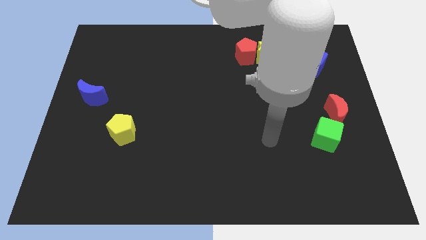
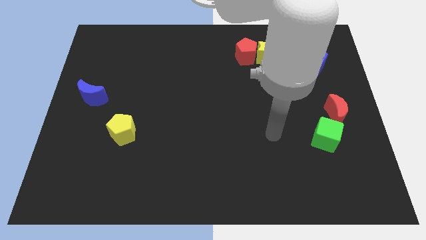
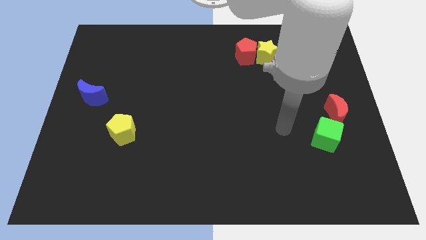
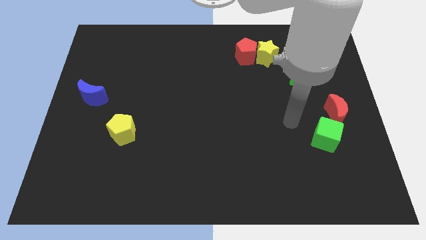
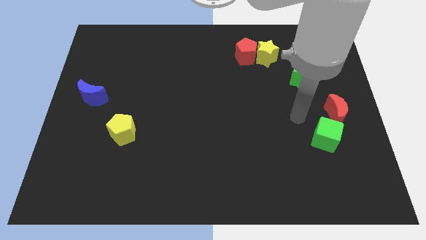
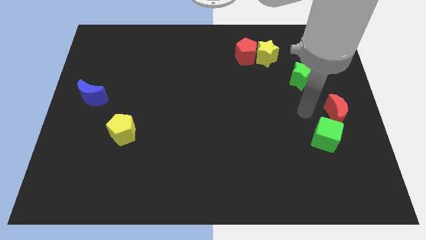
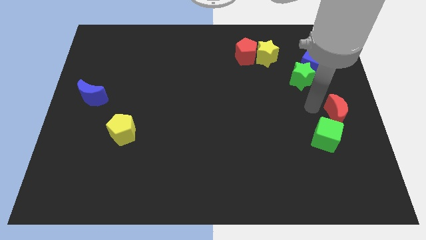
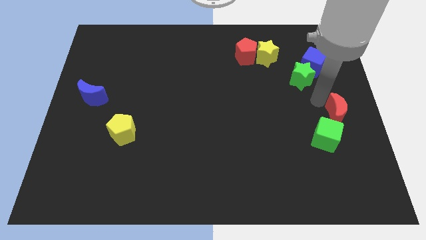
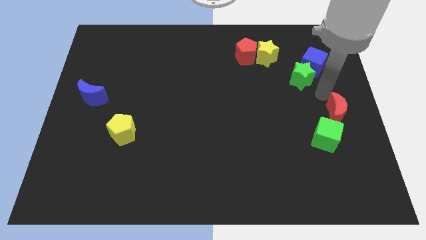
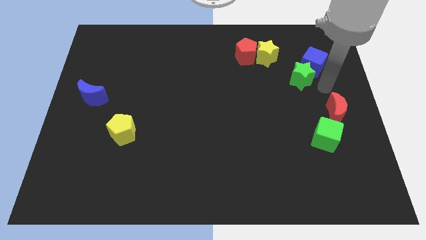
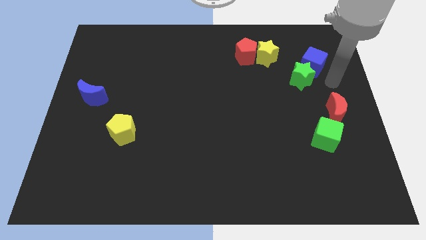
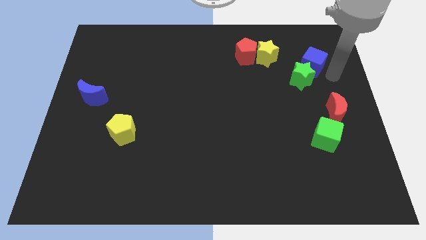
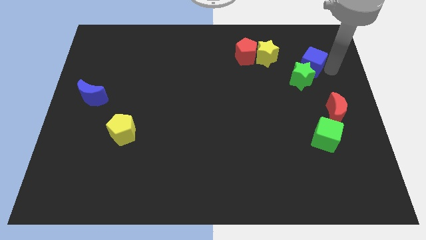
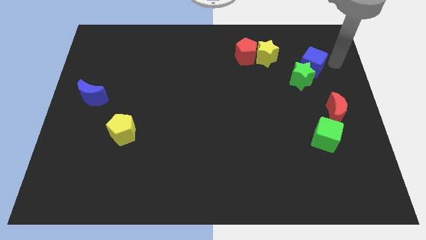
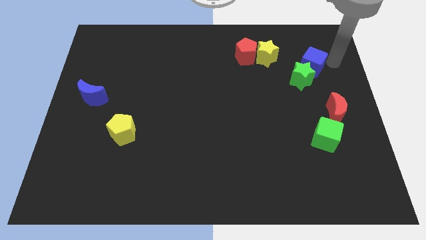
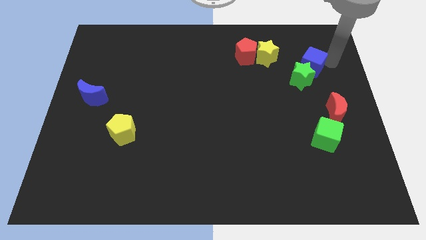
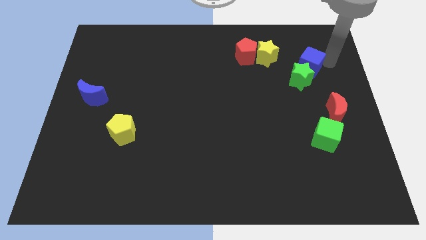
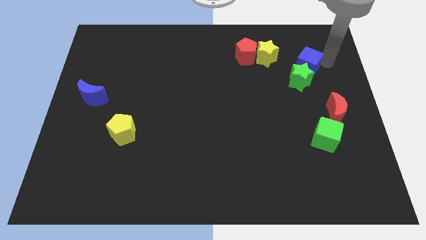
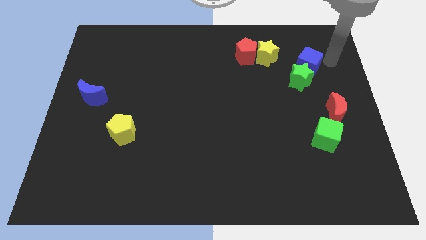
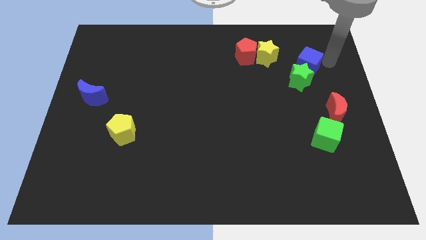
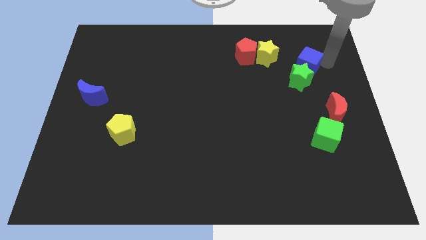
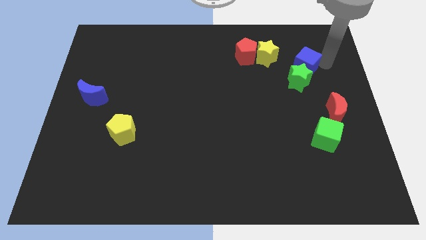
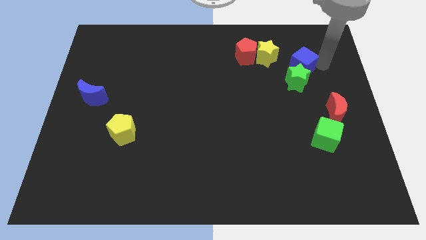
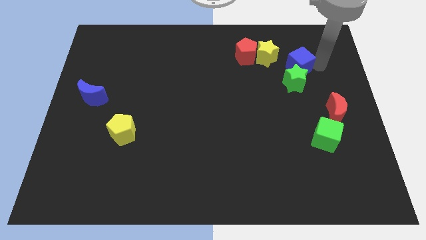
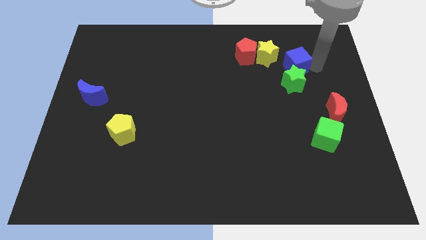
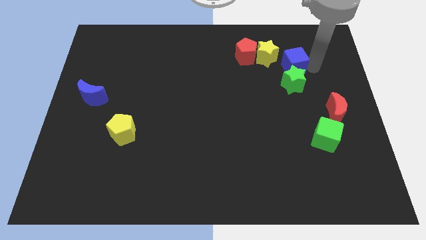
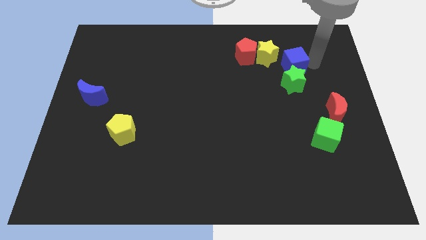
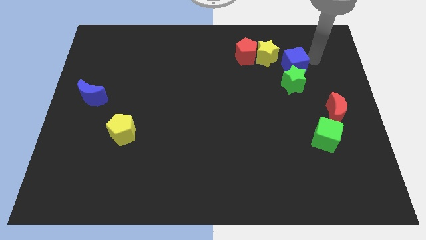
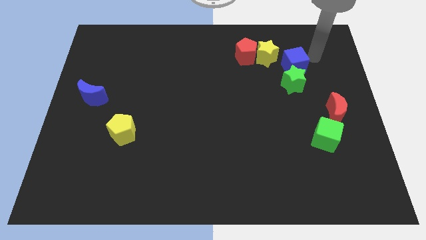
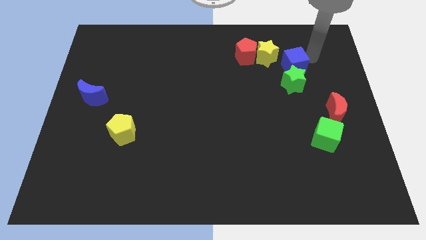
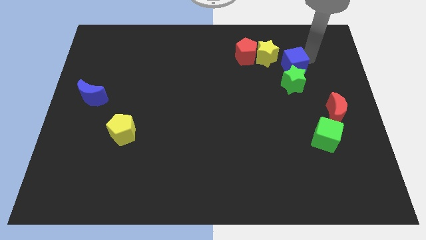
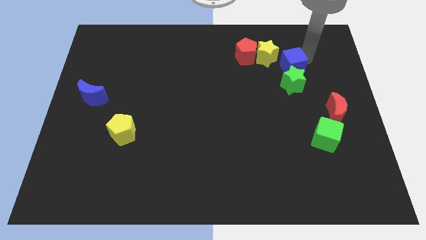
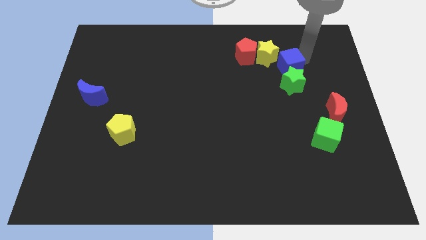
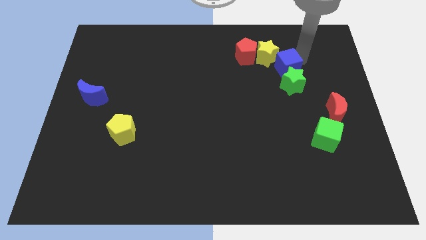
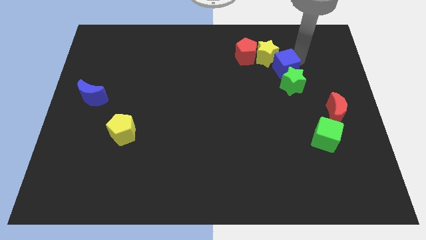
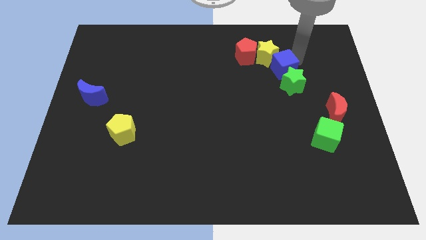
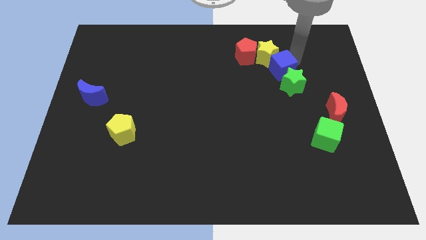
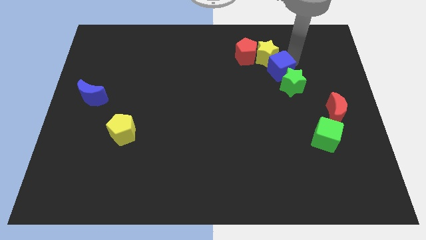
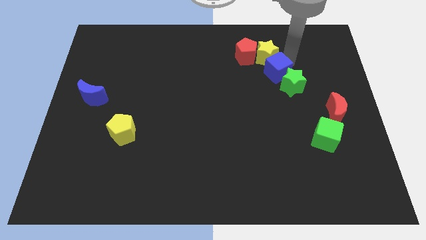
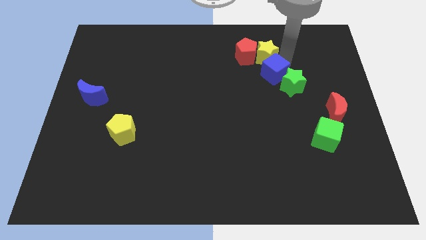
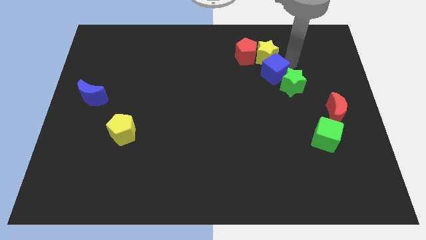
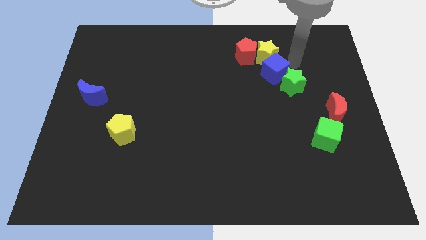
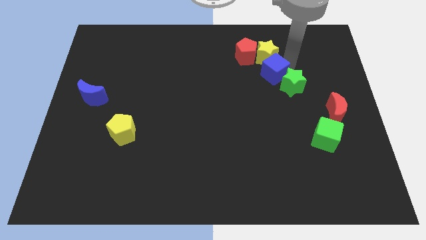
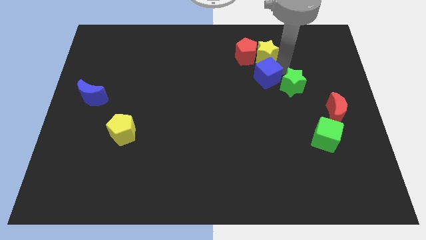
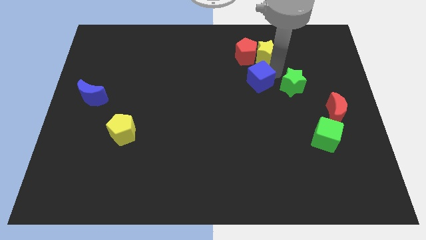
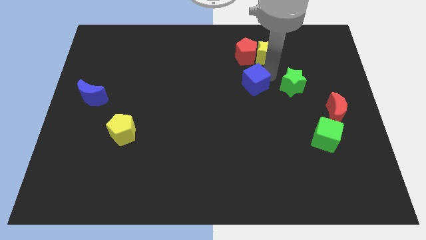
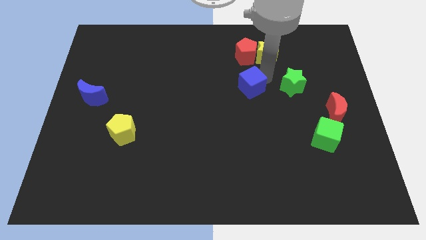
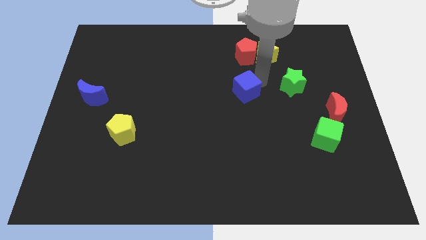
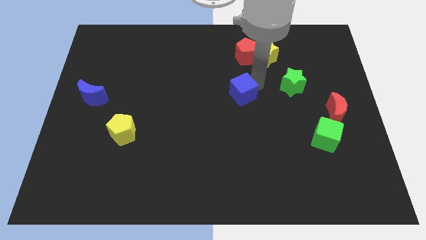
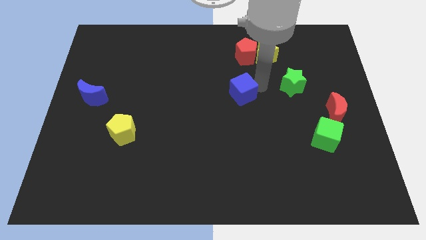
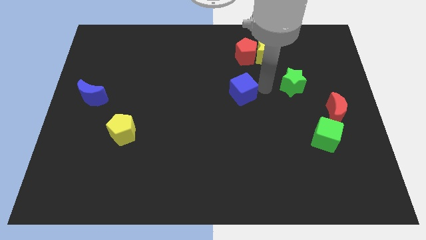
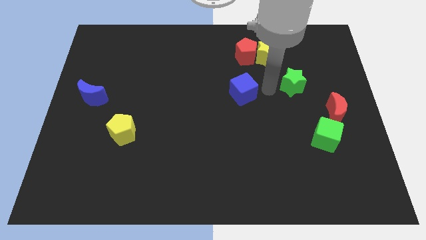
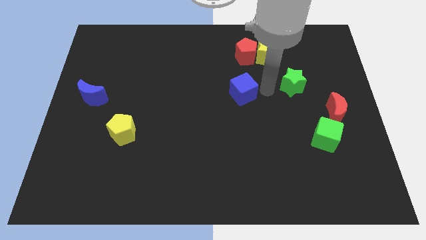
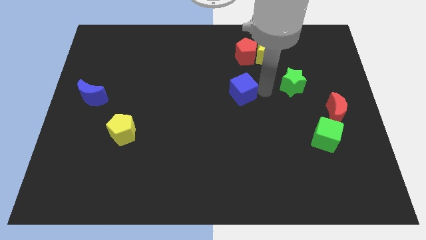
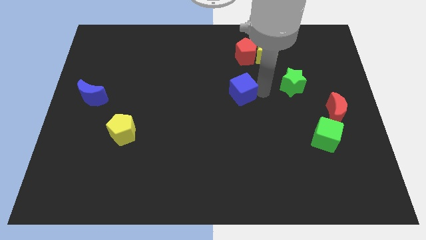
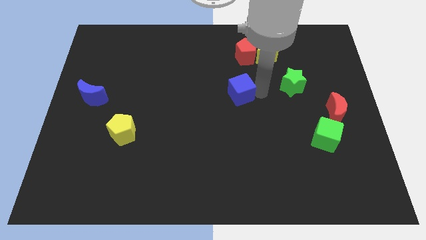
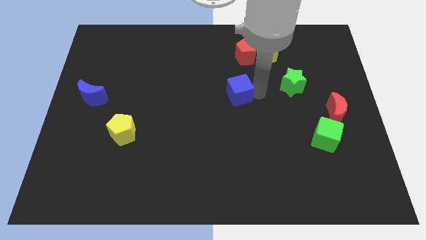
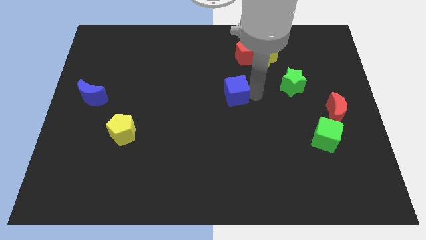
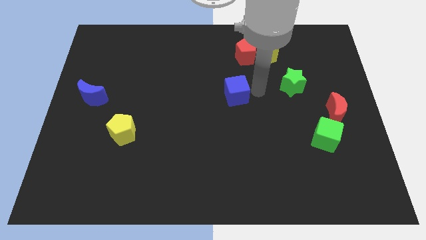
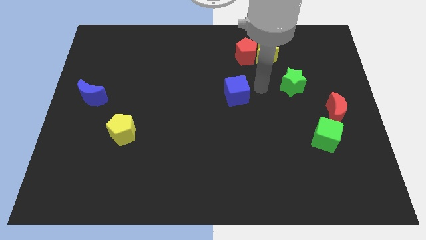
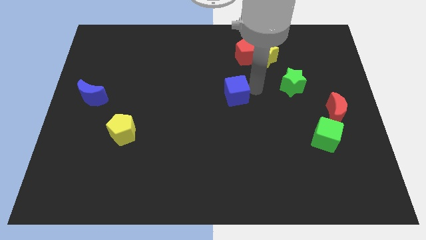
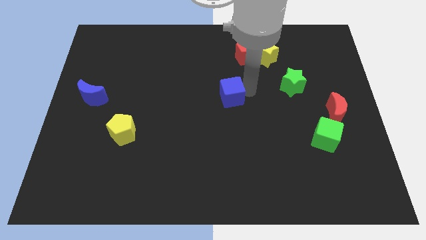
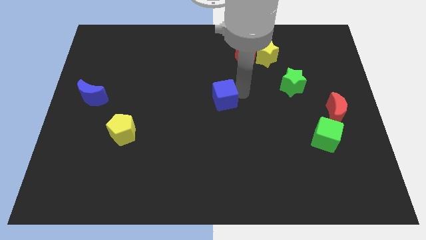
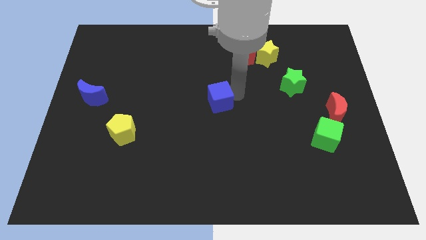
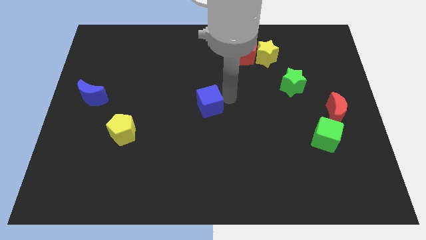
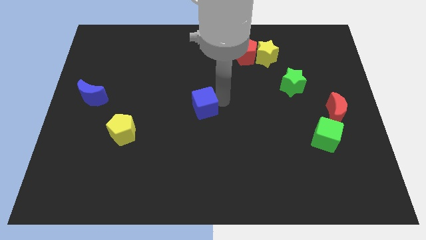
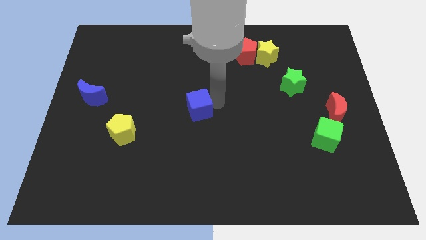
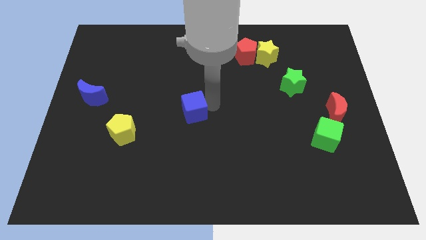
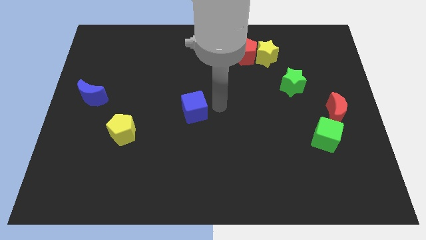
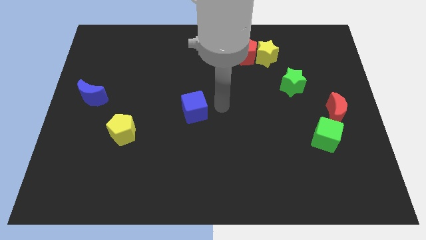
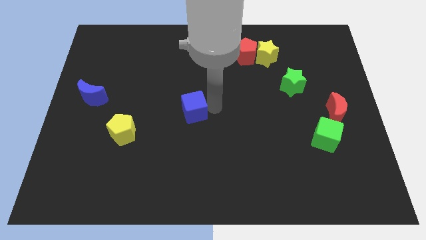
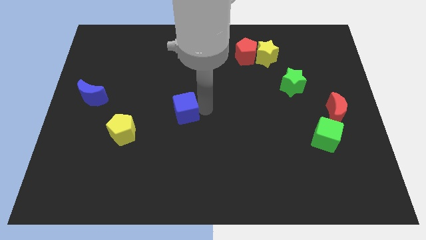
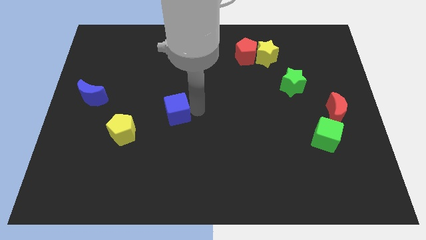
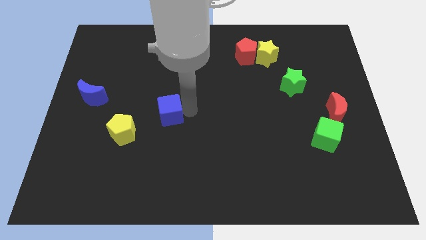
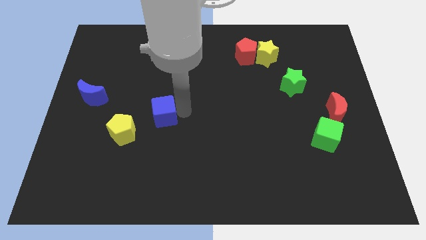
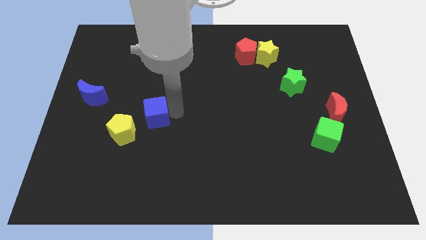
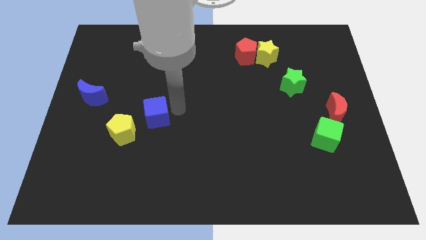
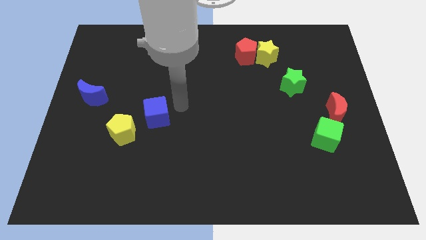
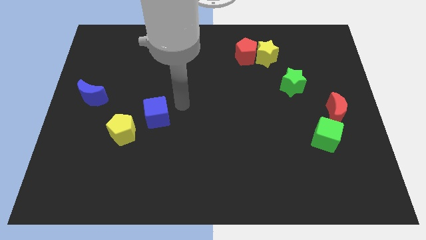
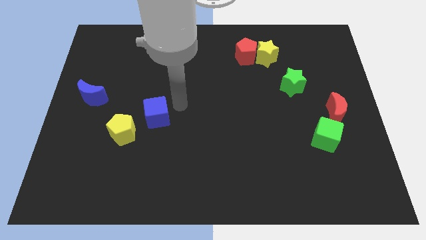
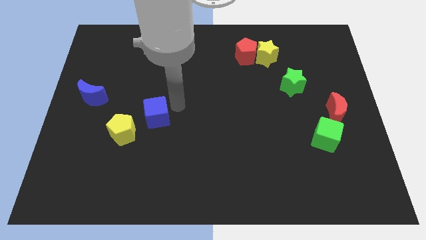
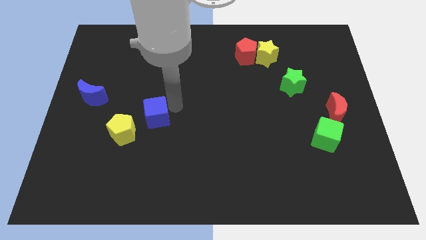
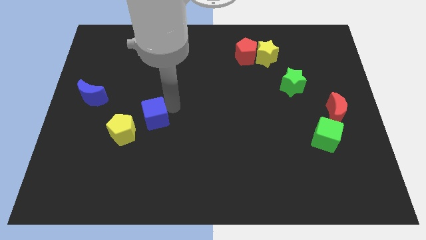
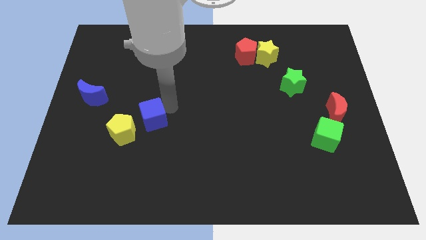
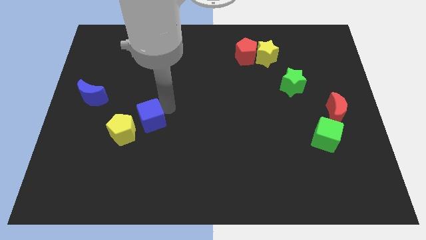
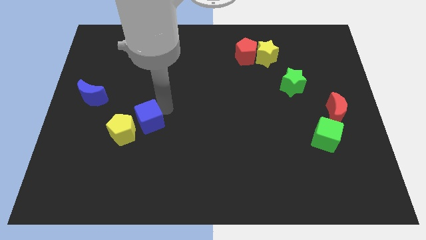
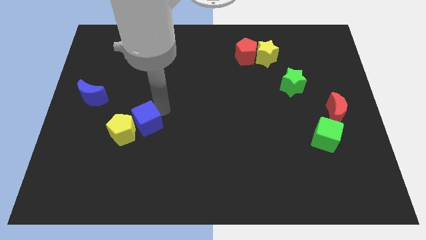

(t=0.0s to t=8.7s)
slide the blue cube to the yellow pentagon
